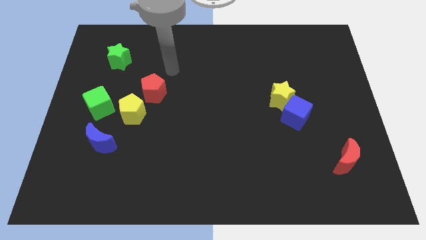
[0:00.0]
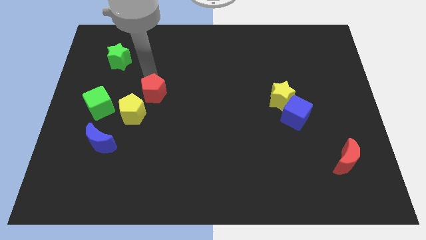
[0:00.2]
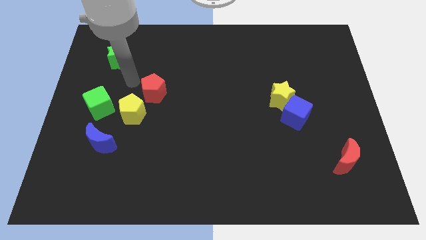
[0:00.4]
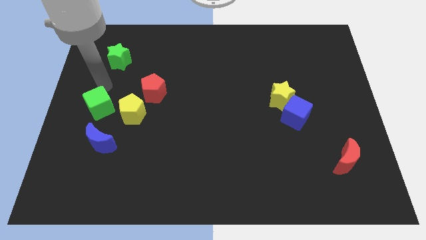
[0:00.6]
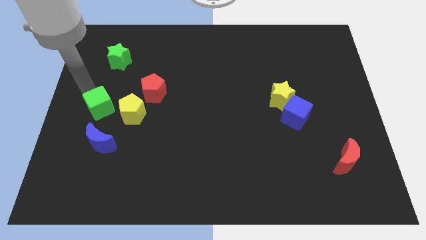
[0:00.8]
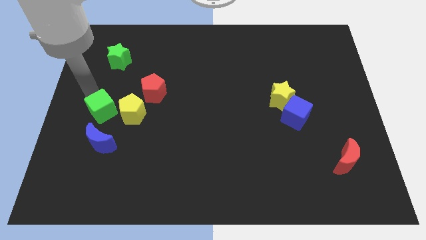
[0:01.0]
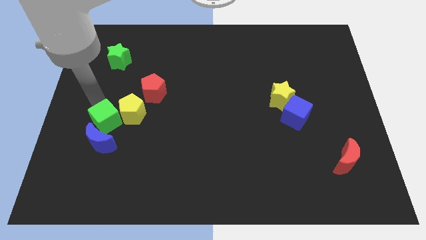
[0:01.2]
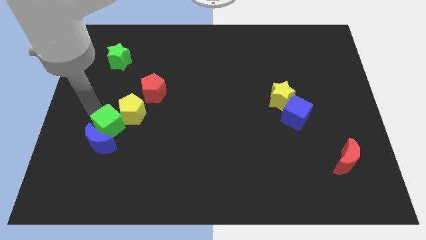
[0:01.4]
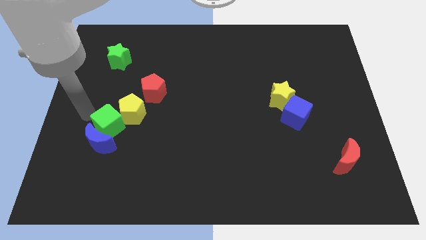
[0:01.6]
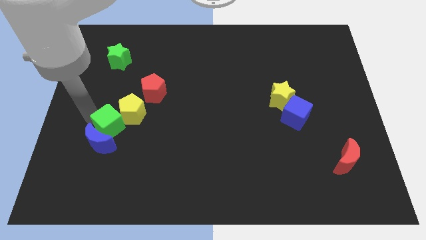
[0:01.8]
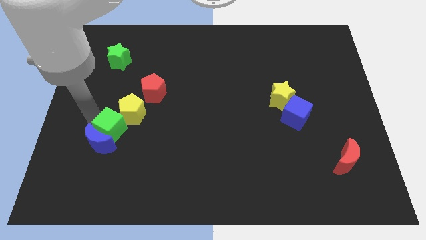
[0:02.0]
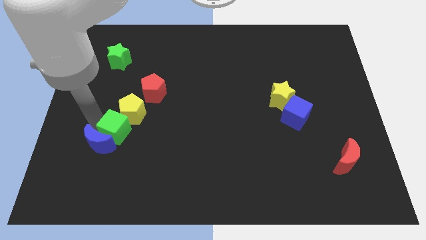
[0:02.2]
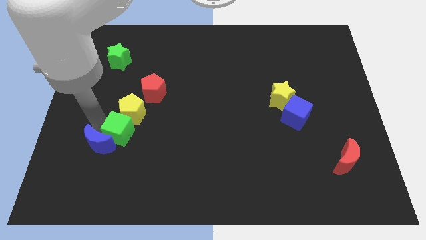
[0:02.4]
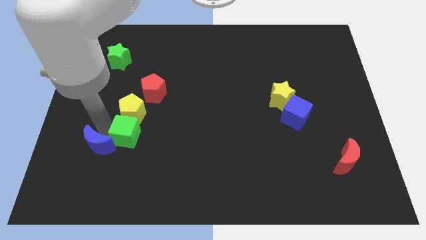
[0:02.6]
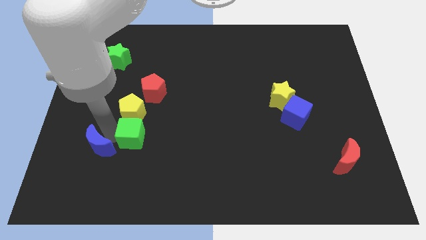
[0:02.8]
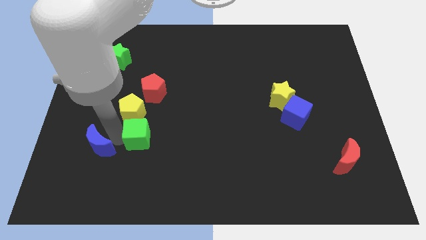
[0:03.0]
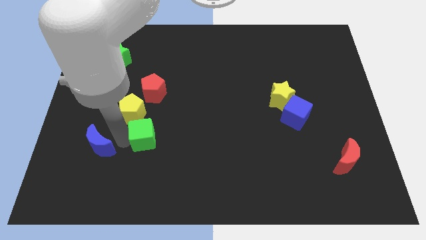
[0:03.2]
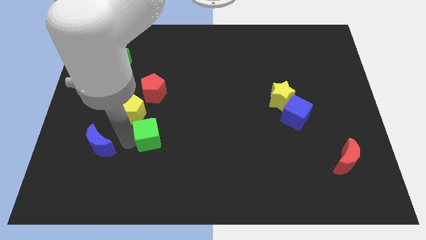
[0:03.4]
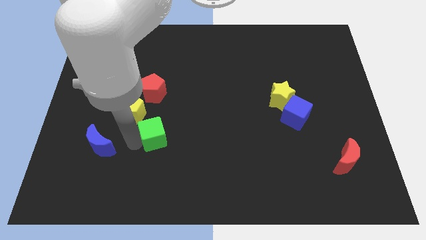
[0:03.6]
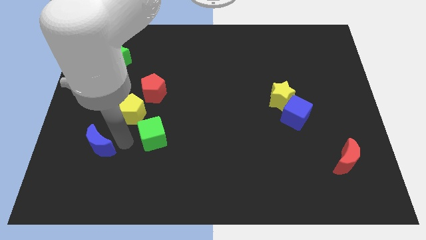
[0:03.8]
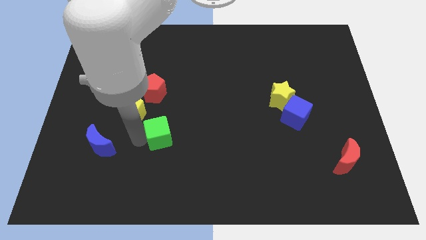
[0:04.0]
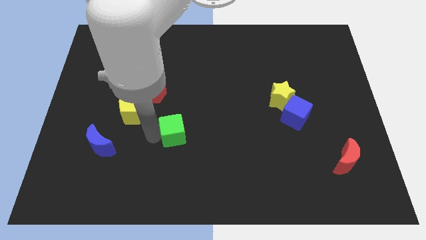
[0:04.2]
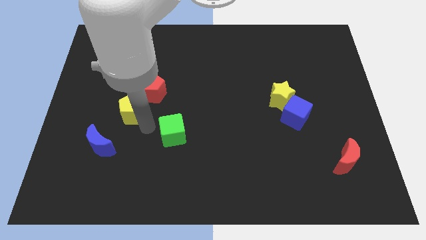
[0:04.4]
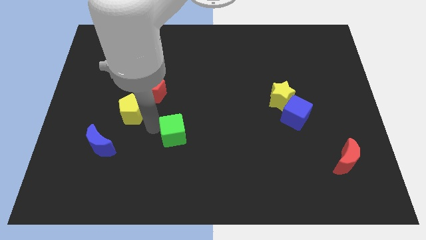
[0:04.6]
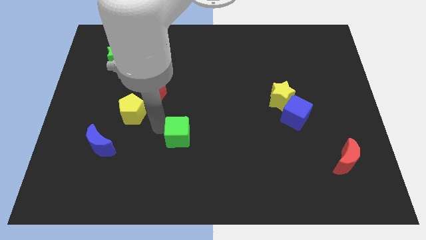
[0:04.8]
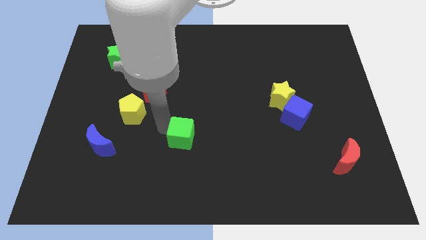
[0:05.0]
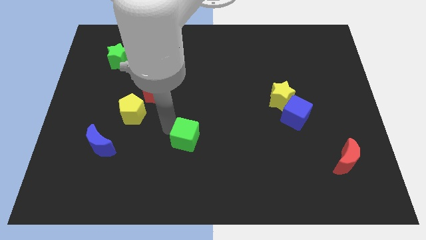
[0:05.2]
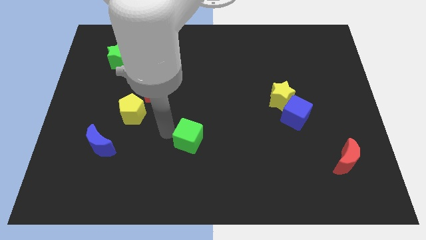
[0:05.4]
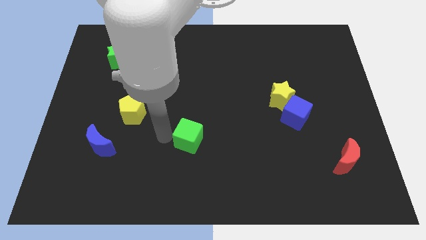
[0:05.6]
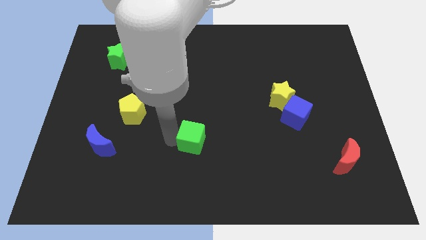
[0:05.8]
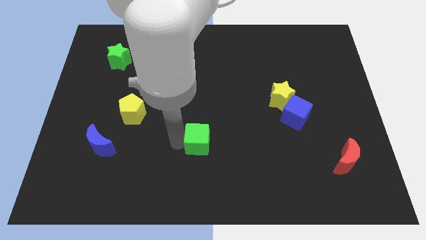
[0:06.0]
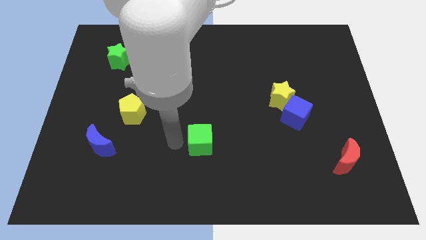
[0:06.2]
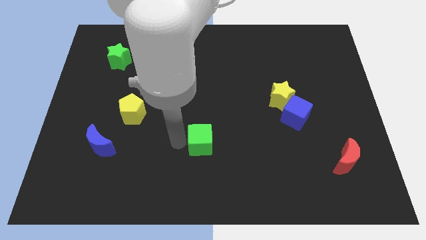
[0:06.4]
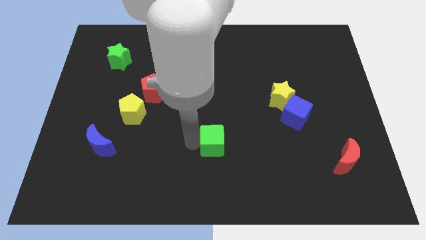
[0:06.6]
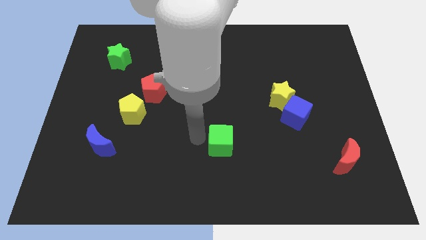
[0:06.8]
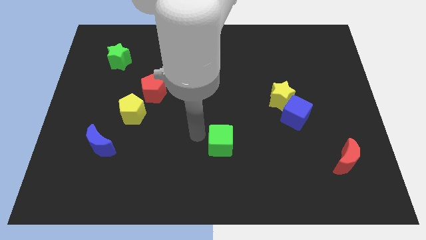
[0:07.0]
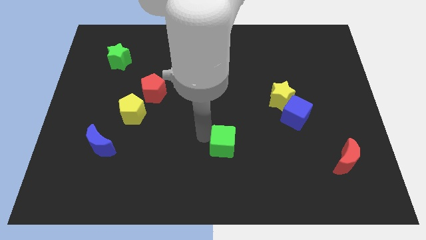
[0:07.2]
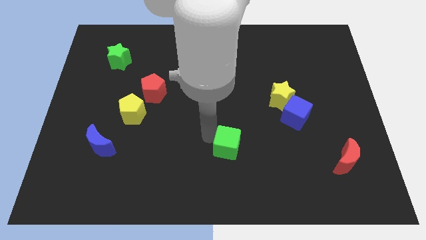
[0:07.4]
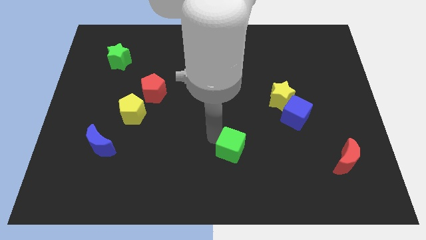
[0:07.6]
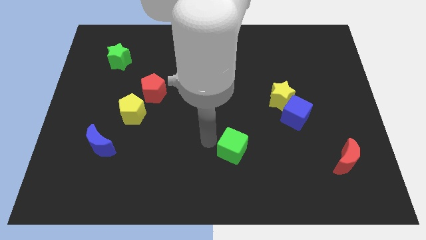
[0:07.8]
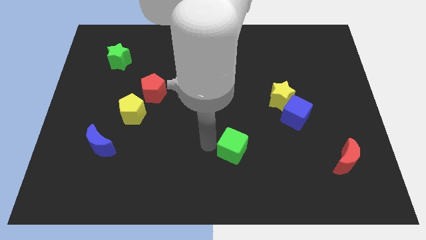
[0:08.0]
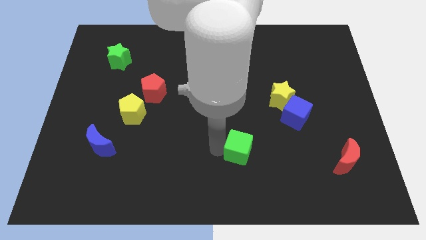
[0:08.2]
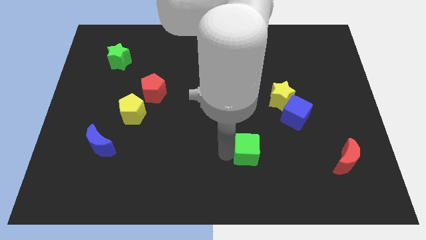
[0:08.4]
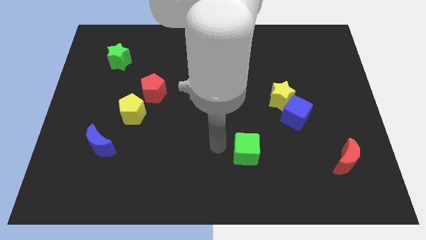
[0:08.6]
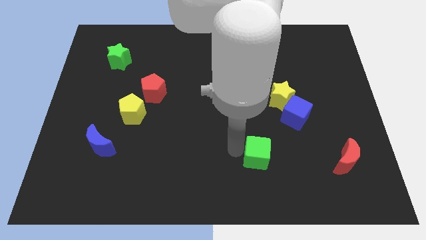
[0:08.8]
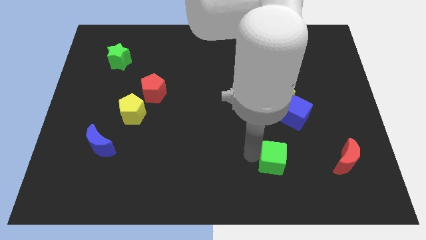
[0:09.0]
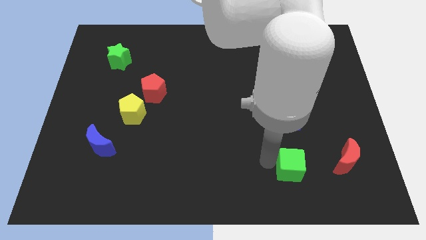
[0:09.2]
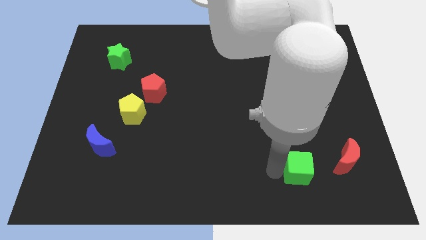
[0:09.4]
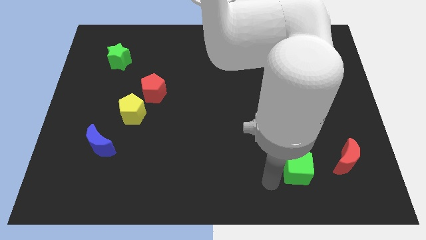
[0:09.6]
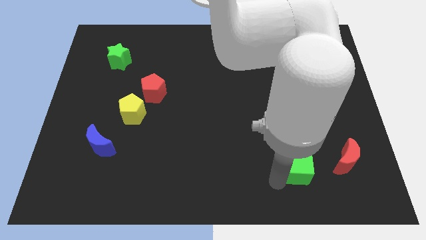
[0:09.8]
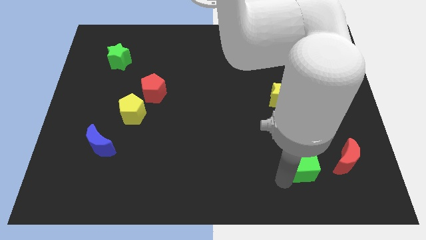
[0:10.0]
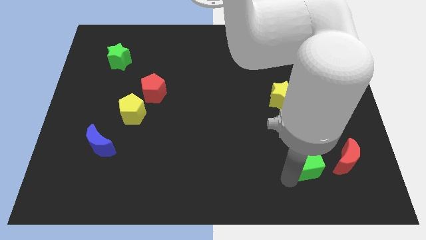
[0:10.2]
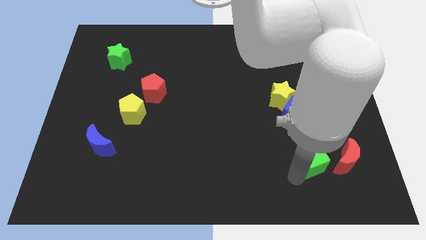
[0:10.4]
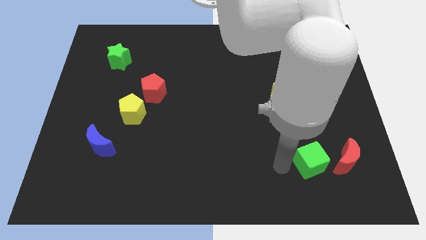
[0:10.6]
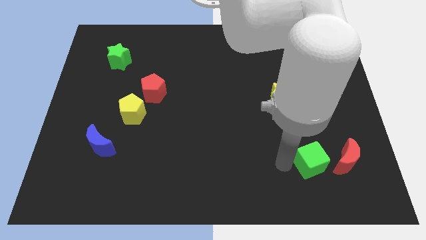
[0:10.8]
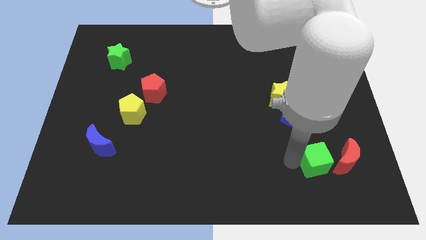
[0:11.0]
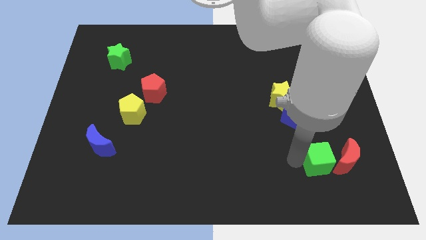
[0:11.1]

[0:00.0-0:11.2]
slide the green cube next to the red moon
